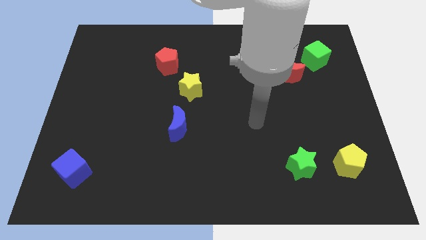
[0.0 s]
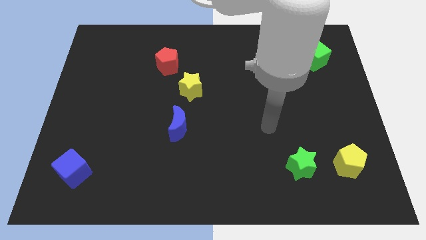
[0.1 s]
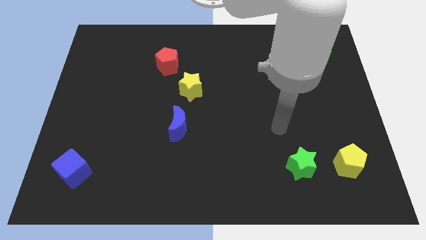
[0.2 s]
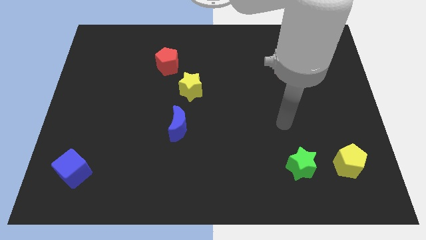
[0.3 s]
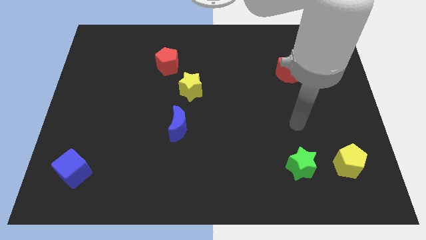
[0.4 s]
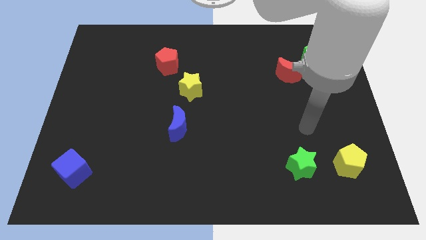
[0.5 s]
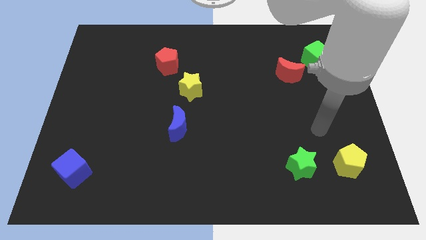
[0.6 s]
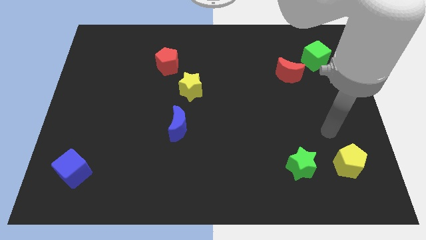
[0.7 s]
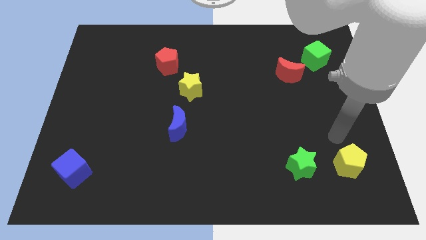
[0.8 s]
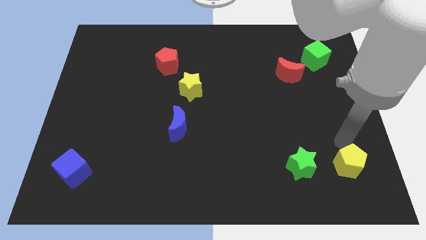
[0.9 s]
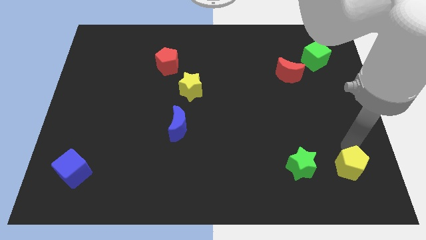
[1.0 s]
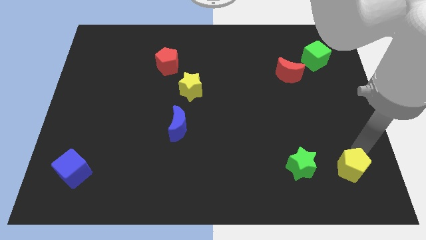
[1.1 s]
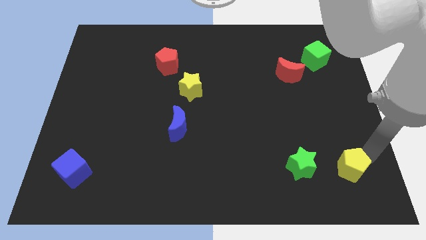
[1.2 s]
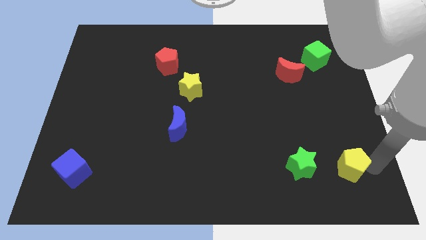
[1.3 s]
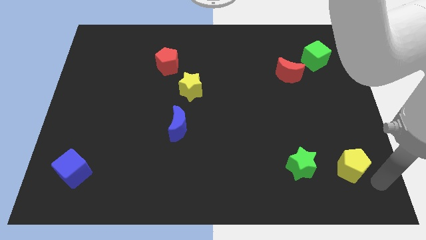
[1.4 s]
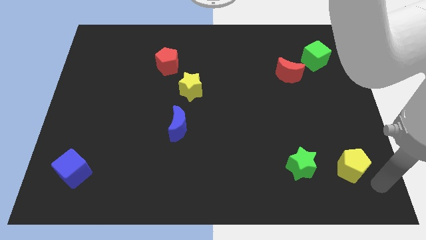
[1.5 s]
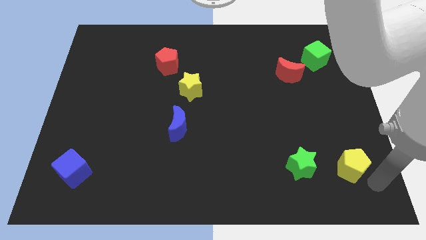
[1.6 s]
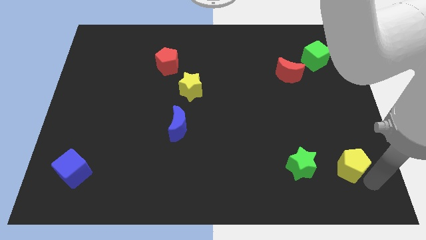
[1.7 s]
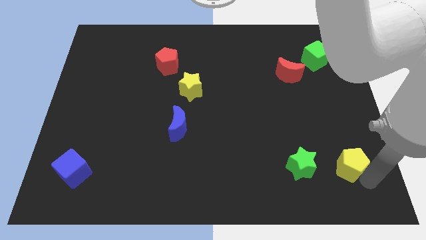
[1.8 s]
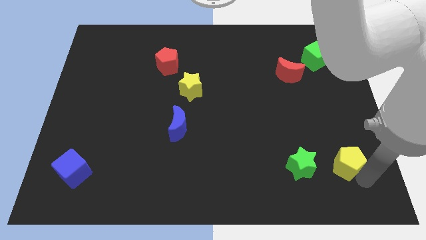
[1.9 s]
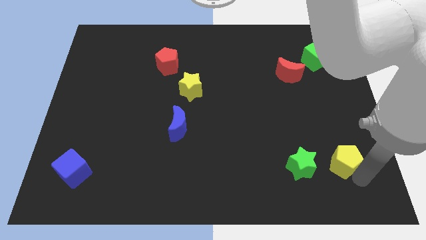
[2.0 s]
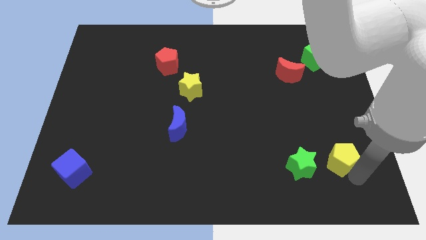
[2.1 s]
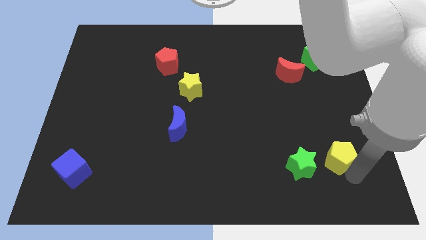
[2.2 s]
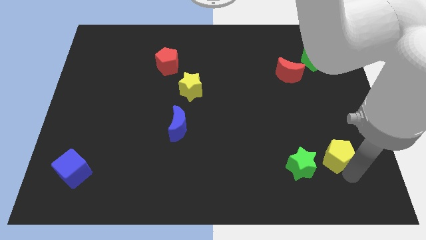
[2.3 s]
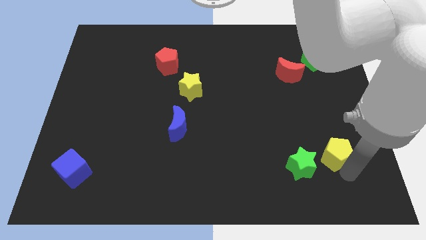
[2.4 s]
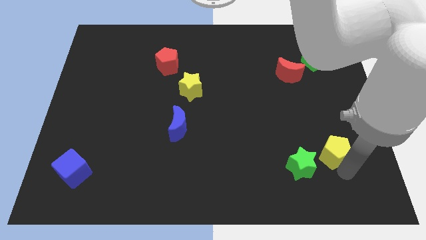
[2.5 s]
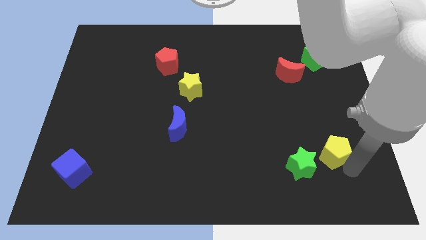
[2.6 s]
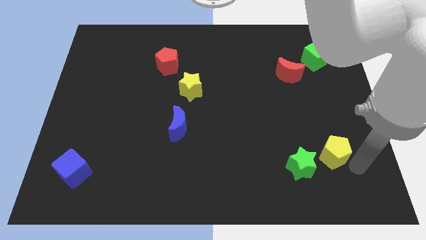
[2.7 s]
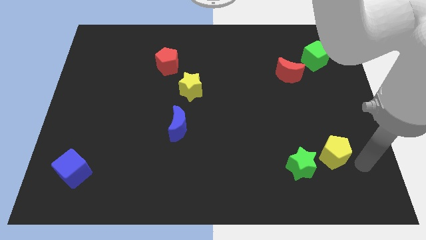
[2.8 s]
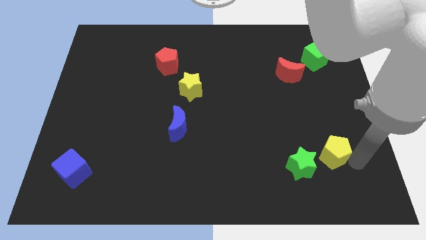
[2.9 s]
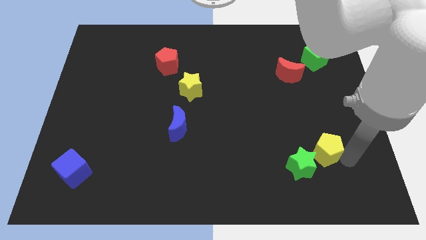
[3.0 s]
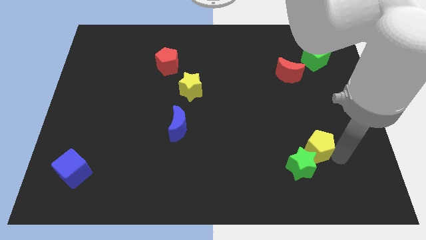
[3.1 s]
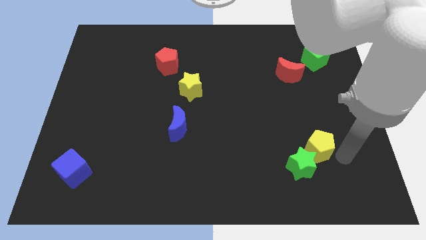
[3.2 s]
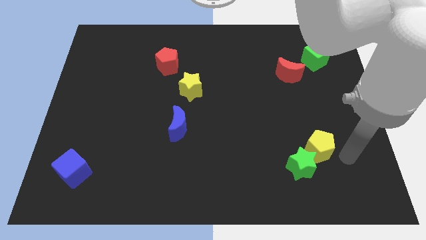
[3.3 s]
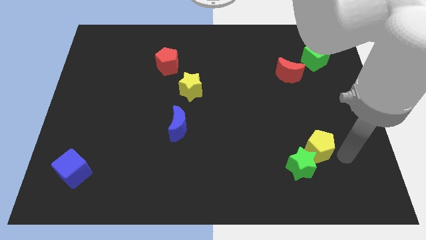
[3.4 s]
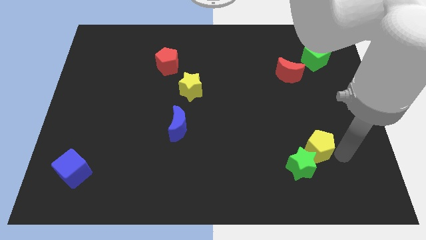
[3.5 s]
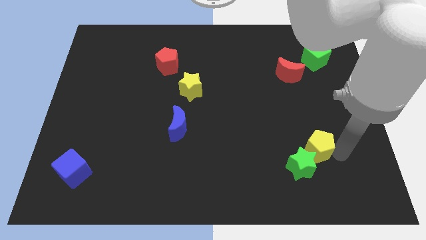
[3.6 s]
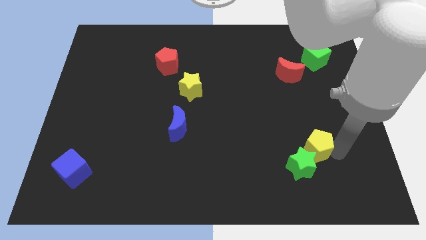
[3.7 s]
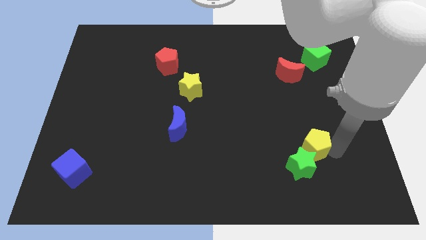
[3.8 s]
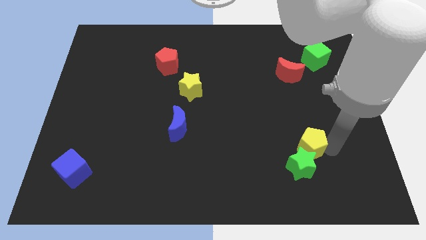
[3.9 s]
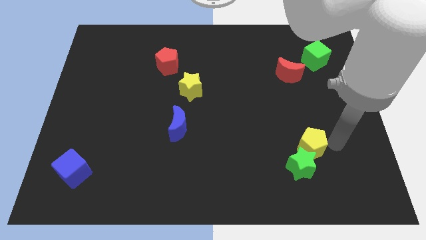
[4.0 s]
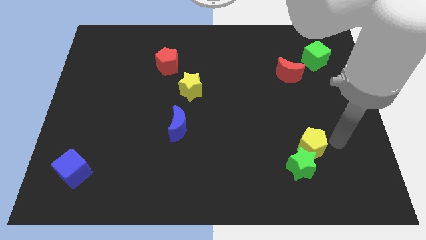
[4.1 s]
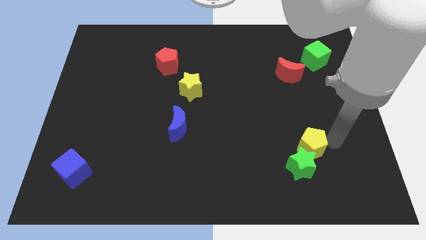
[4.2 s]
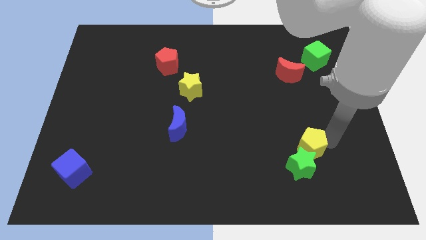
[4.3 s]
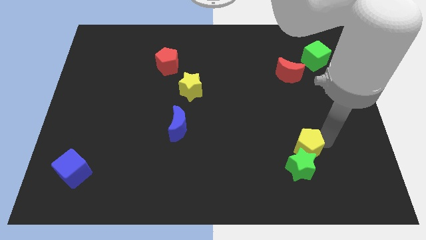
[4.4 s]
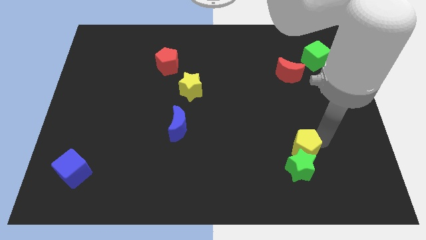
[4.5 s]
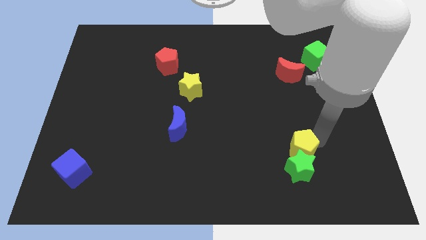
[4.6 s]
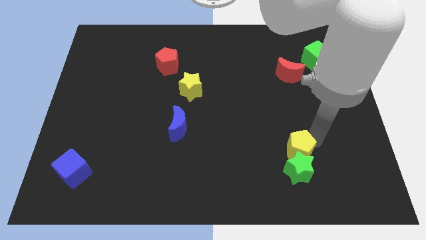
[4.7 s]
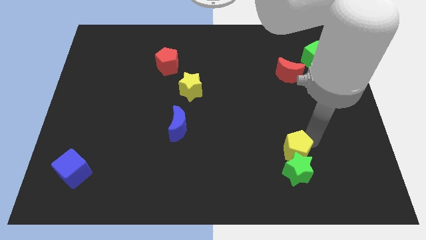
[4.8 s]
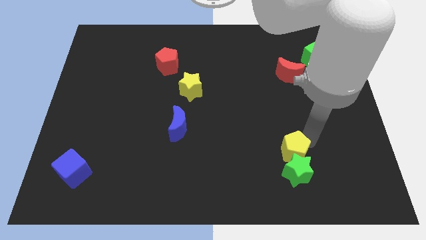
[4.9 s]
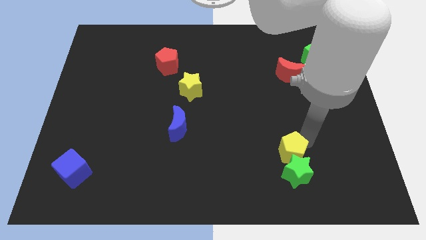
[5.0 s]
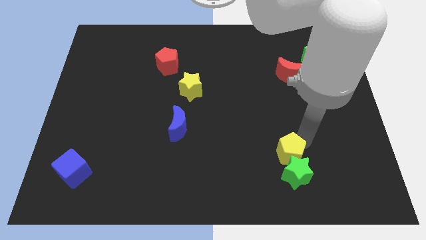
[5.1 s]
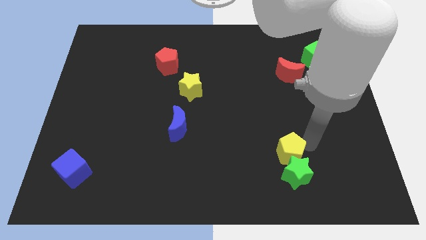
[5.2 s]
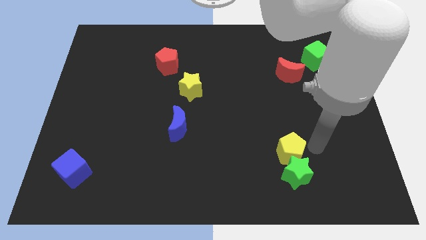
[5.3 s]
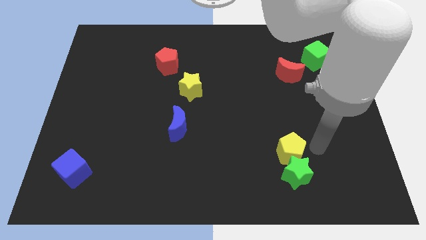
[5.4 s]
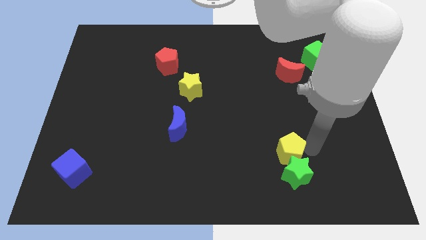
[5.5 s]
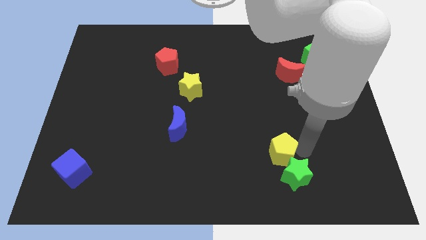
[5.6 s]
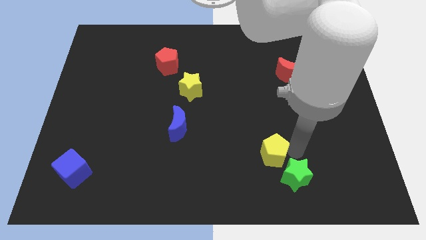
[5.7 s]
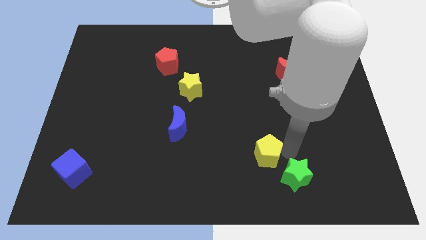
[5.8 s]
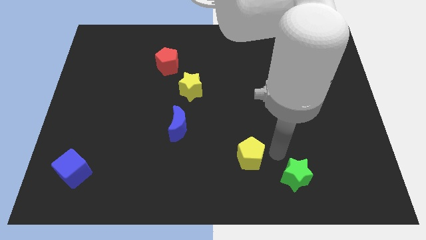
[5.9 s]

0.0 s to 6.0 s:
move the yellow pentagon to the left

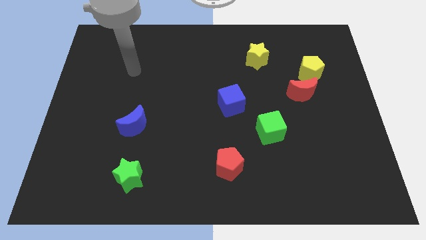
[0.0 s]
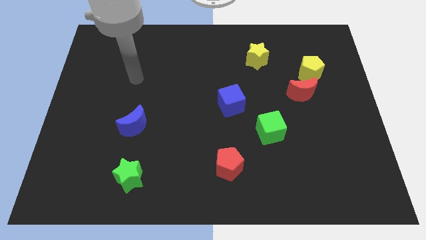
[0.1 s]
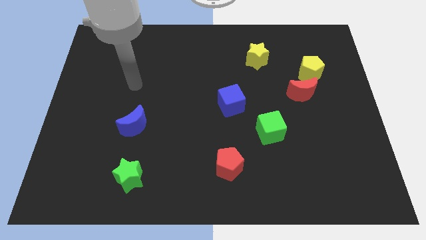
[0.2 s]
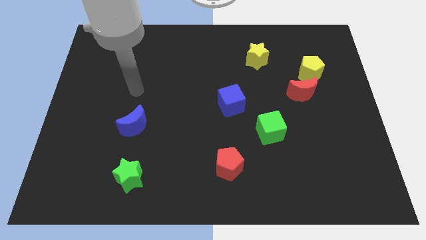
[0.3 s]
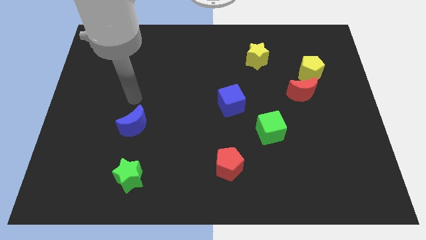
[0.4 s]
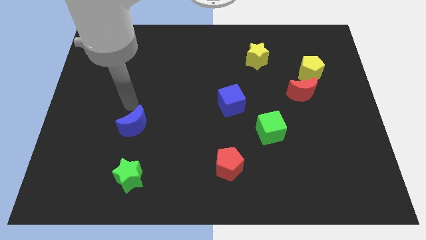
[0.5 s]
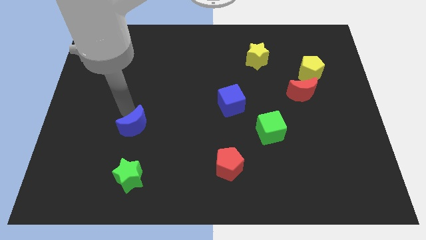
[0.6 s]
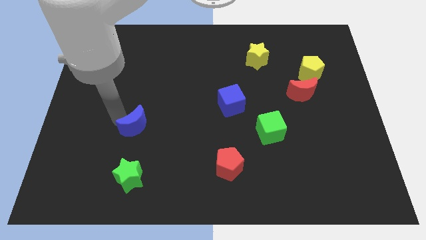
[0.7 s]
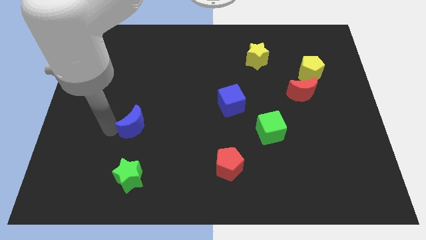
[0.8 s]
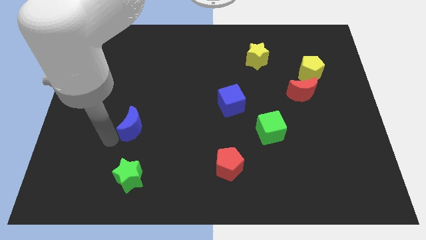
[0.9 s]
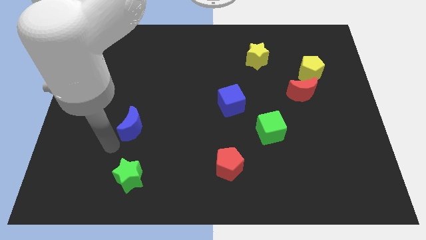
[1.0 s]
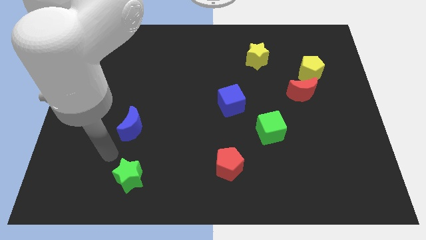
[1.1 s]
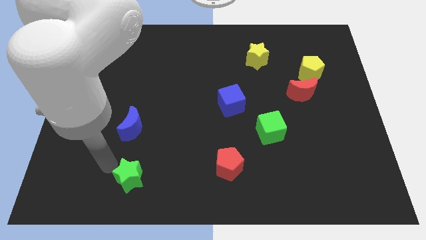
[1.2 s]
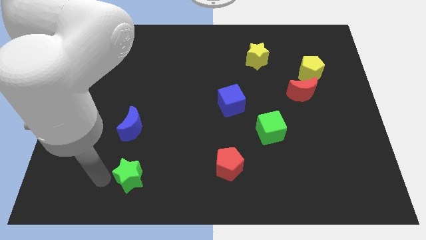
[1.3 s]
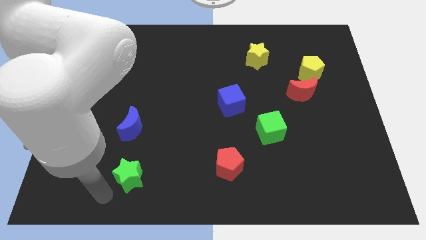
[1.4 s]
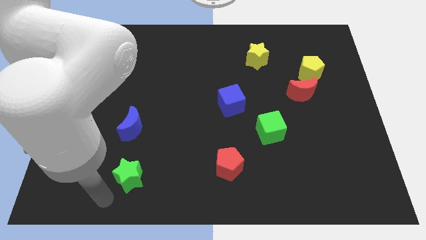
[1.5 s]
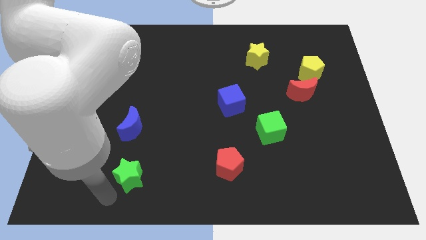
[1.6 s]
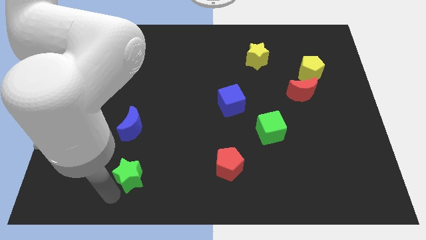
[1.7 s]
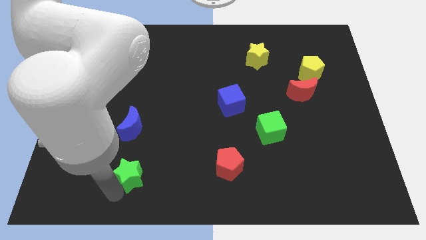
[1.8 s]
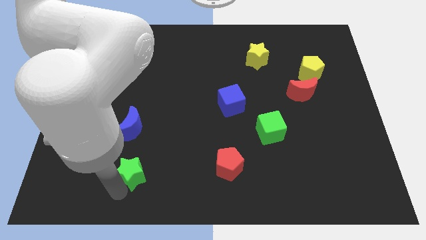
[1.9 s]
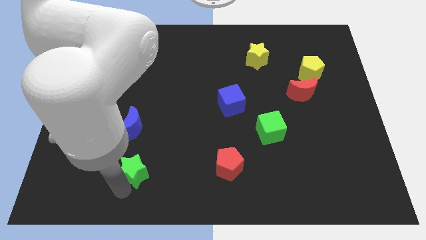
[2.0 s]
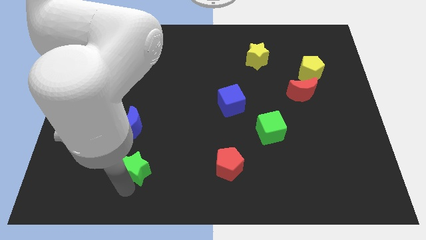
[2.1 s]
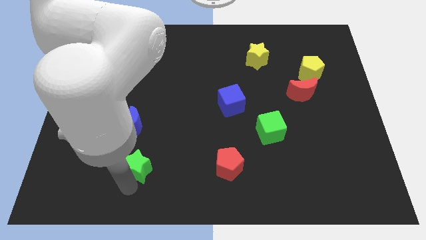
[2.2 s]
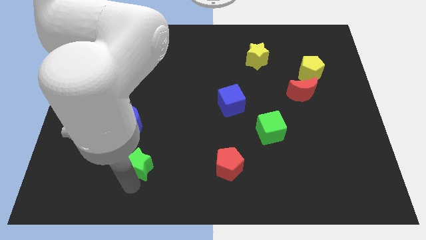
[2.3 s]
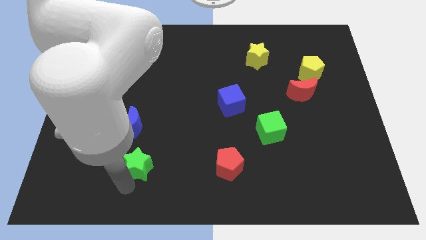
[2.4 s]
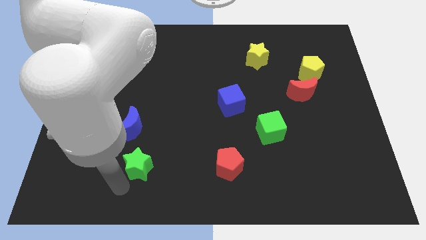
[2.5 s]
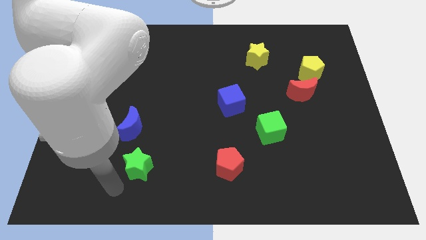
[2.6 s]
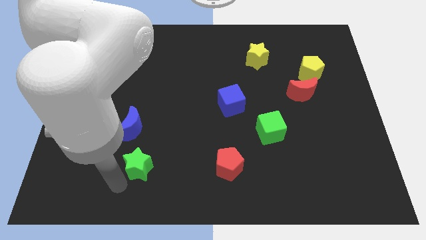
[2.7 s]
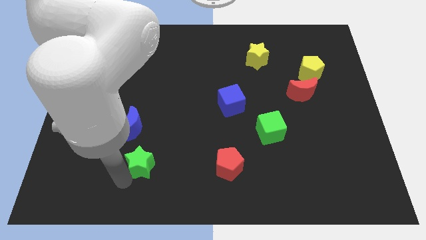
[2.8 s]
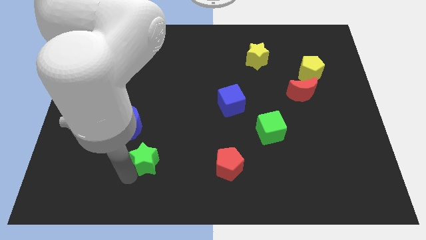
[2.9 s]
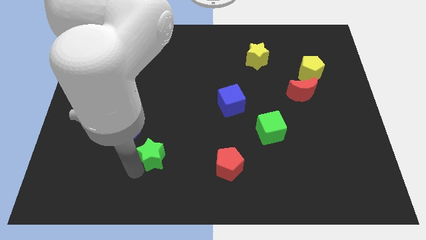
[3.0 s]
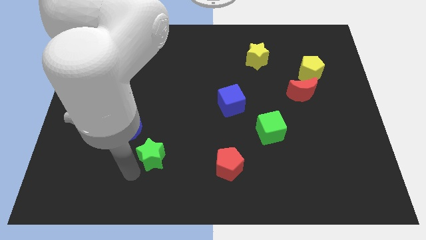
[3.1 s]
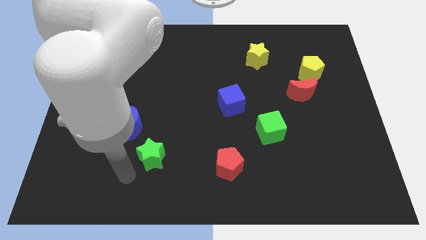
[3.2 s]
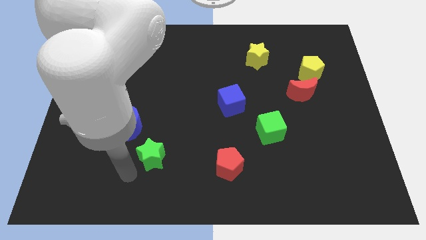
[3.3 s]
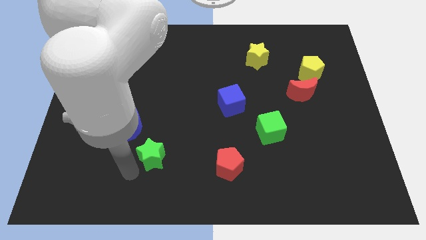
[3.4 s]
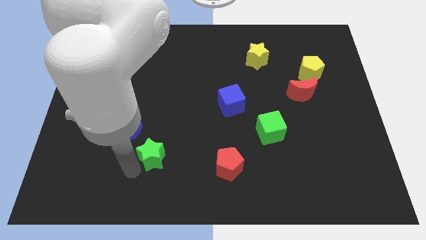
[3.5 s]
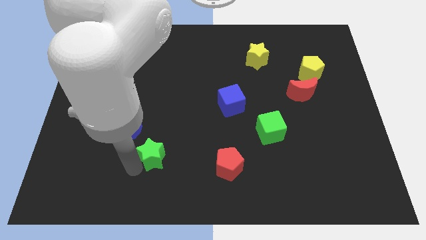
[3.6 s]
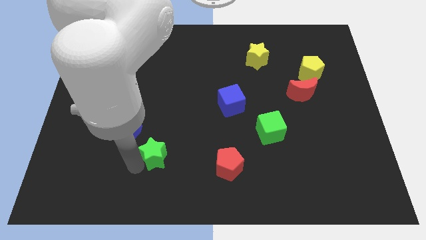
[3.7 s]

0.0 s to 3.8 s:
move the green star up and right diagonally a little
